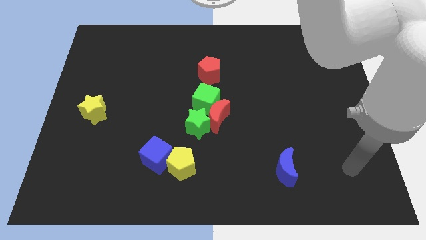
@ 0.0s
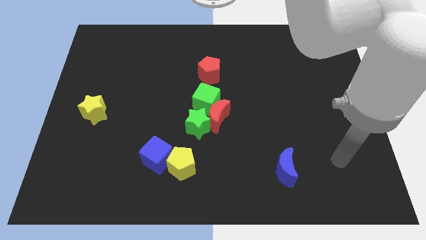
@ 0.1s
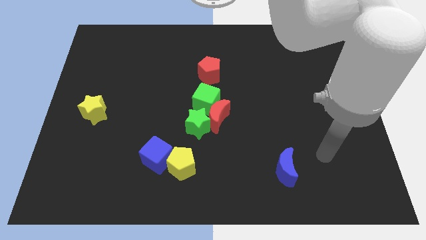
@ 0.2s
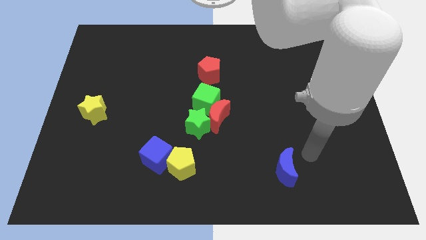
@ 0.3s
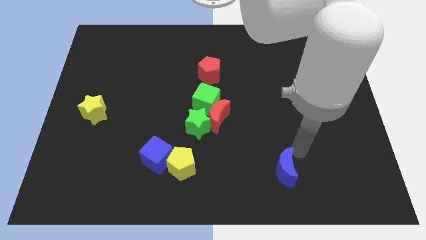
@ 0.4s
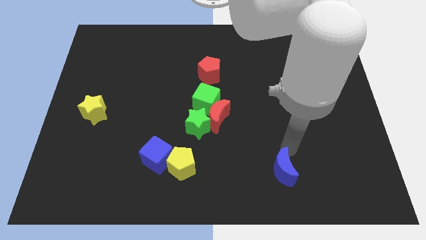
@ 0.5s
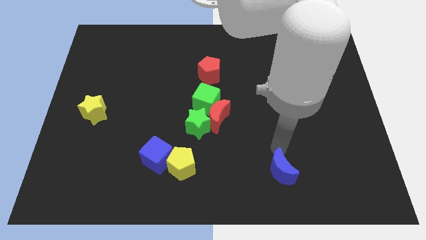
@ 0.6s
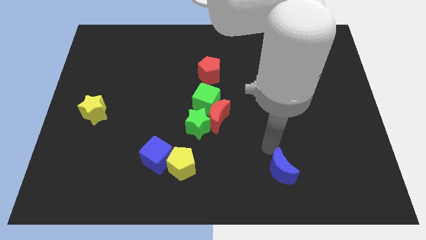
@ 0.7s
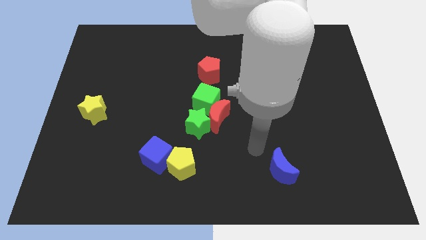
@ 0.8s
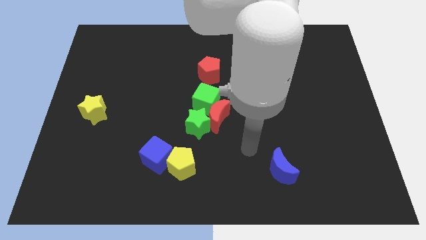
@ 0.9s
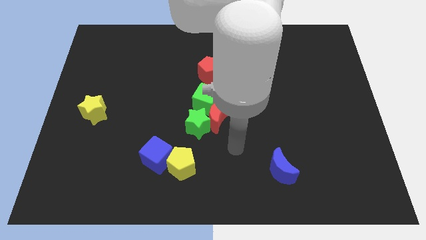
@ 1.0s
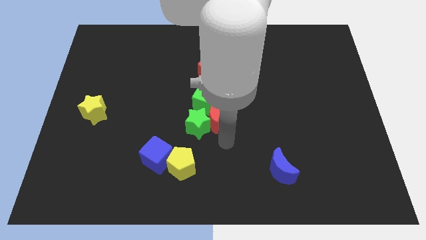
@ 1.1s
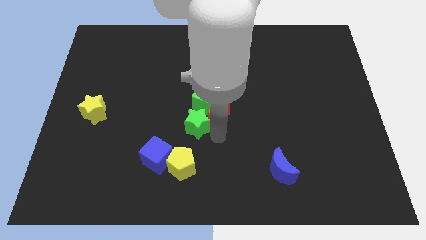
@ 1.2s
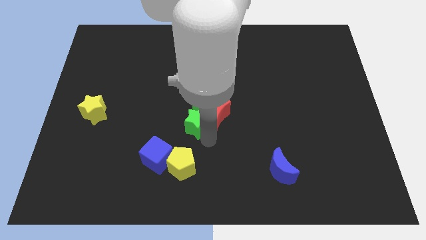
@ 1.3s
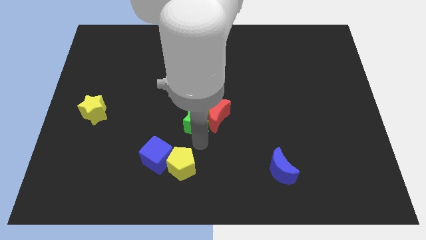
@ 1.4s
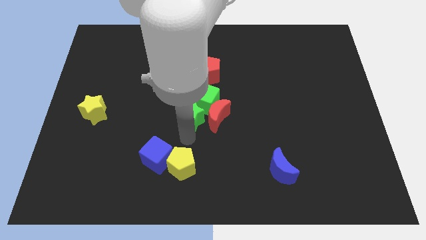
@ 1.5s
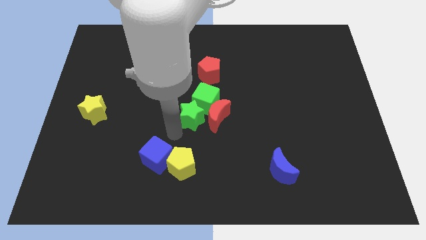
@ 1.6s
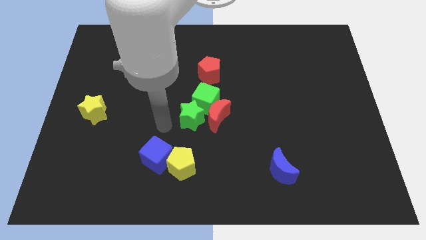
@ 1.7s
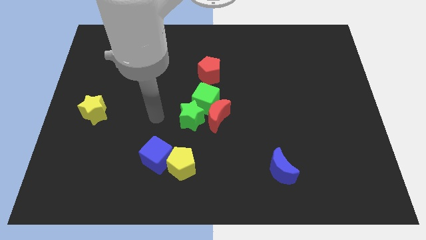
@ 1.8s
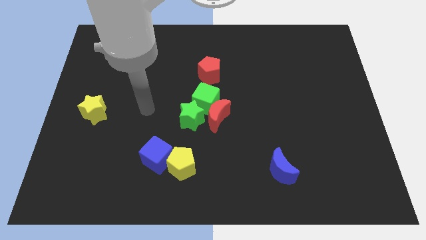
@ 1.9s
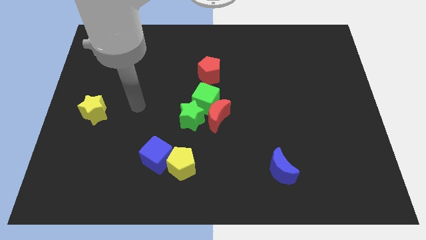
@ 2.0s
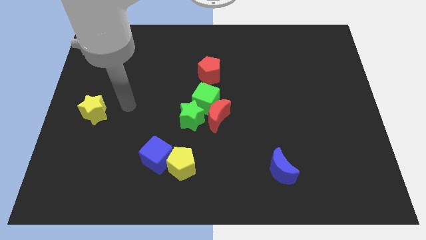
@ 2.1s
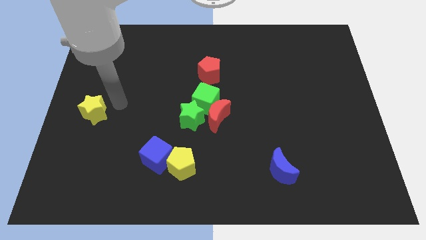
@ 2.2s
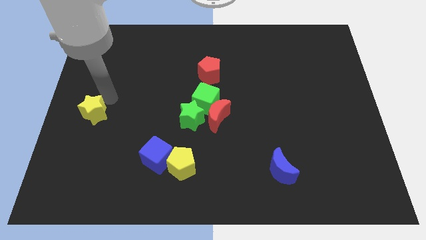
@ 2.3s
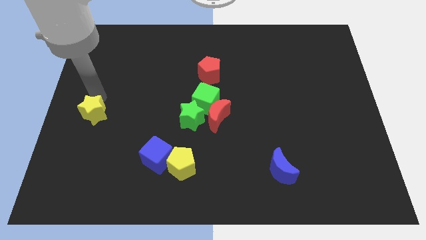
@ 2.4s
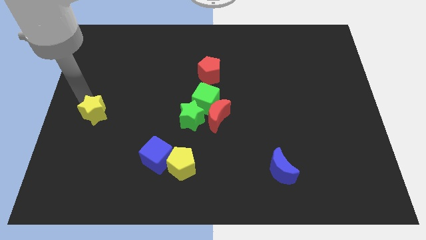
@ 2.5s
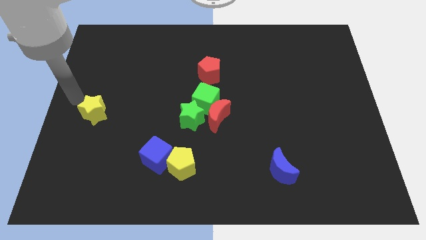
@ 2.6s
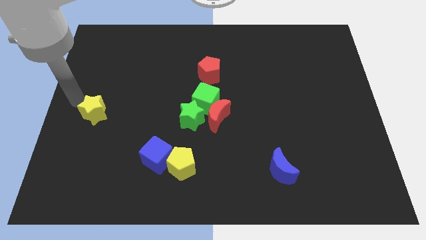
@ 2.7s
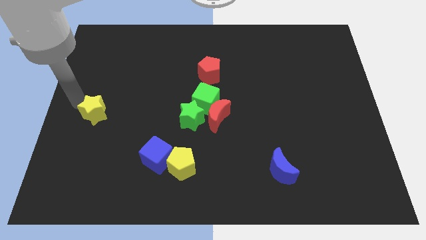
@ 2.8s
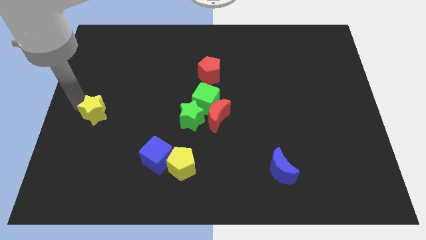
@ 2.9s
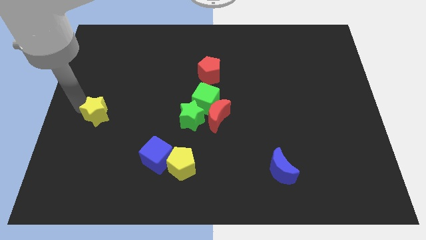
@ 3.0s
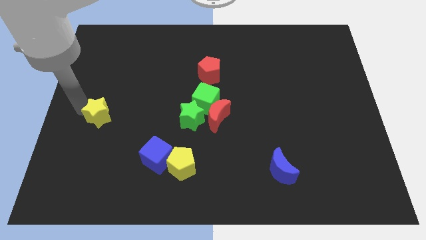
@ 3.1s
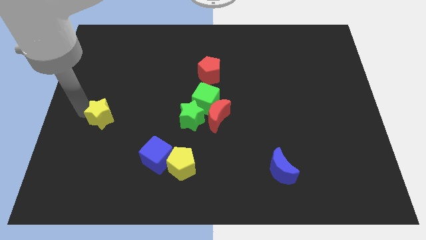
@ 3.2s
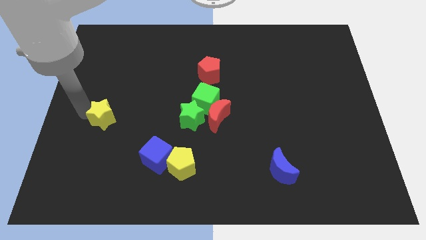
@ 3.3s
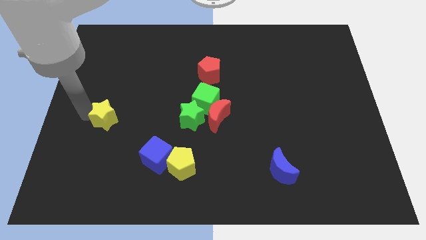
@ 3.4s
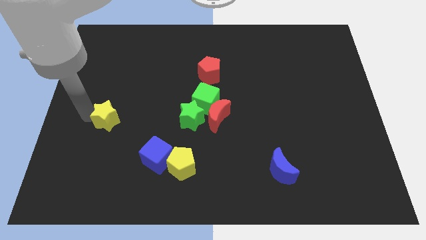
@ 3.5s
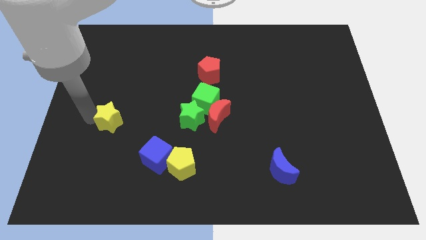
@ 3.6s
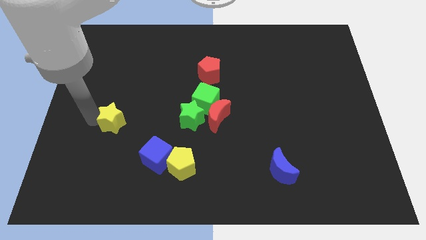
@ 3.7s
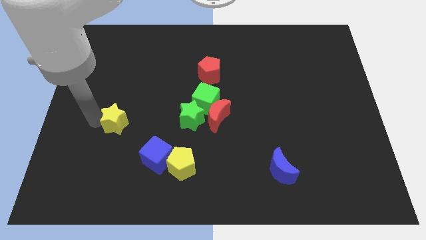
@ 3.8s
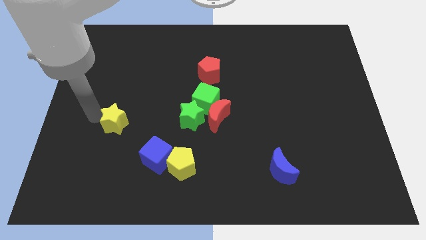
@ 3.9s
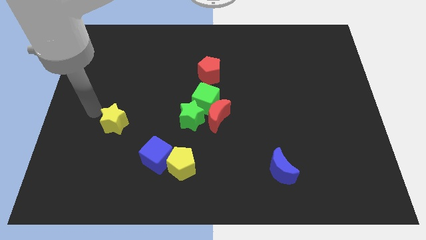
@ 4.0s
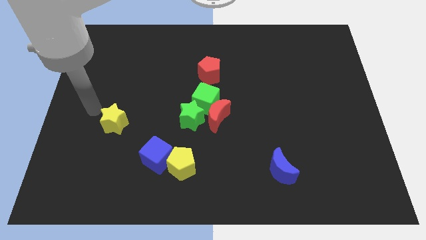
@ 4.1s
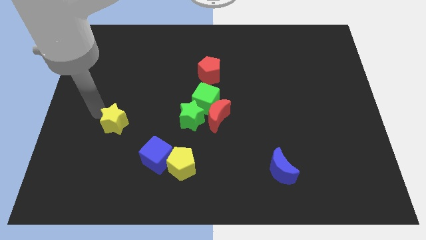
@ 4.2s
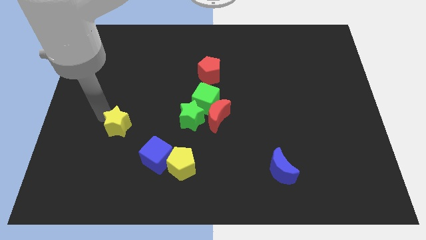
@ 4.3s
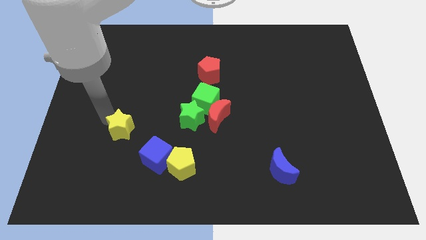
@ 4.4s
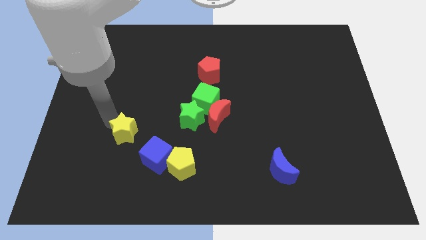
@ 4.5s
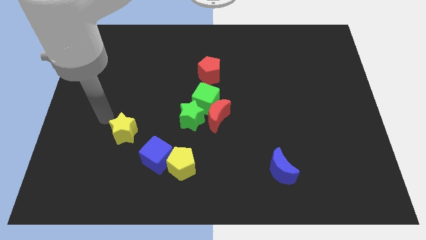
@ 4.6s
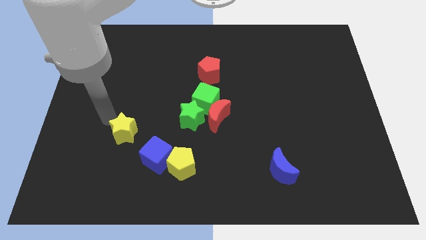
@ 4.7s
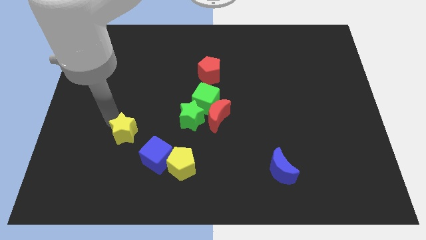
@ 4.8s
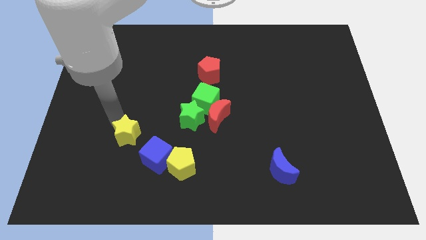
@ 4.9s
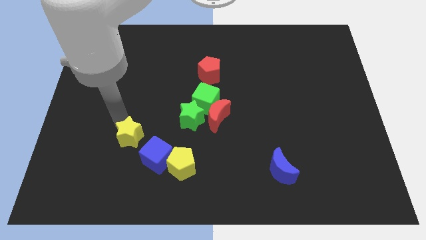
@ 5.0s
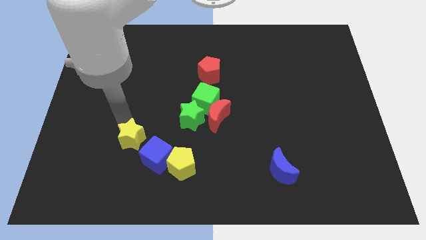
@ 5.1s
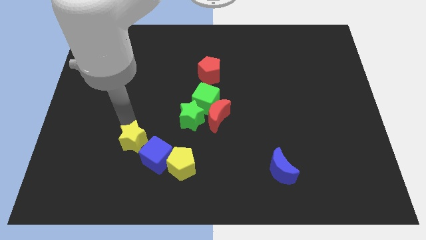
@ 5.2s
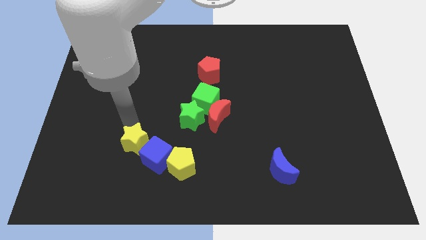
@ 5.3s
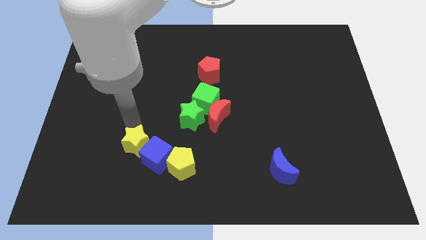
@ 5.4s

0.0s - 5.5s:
slide the yellow star close to the blue cube

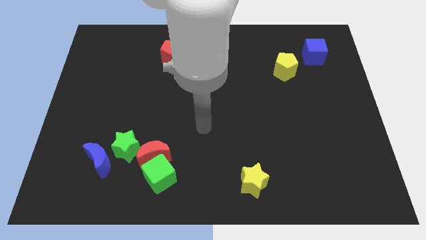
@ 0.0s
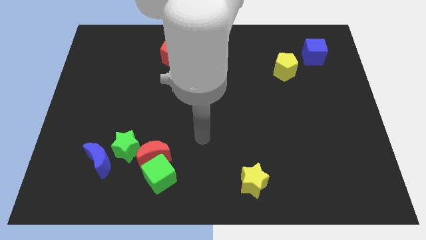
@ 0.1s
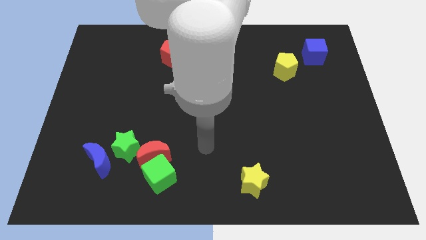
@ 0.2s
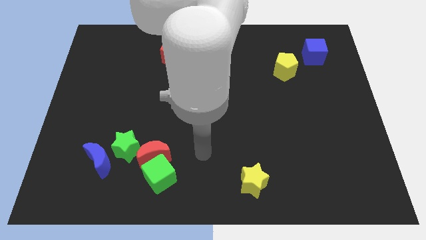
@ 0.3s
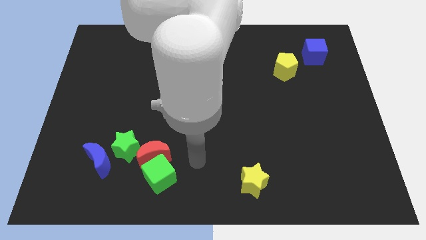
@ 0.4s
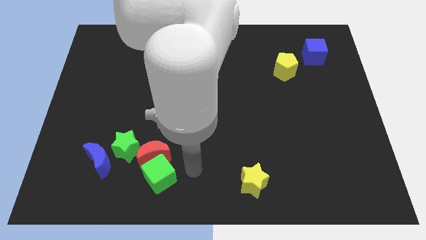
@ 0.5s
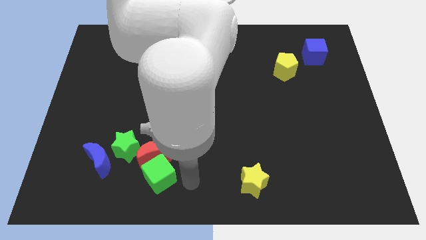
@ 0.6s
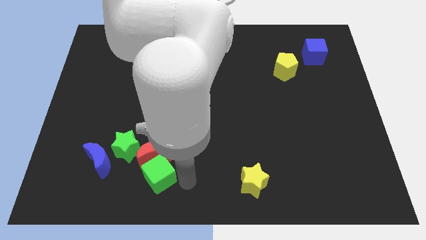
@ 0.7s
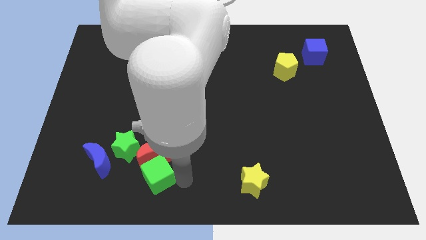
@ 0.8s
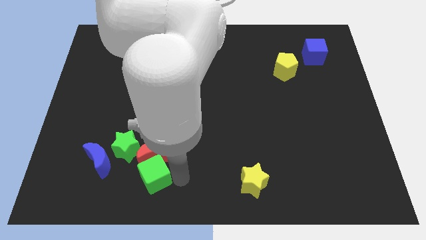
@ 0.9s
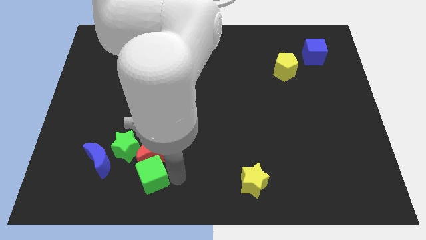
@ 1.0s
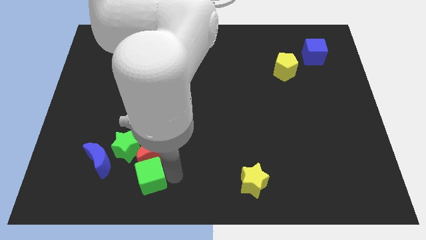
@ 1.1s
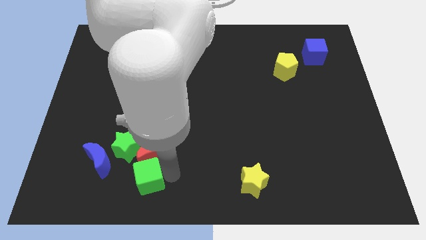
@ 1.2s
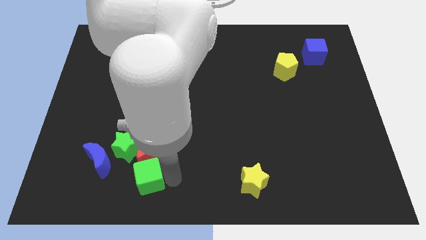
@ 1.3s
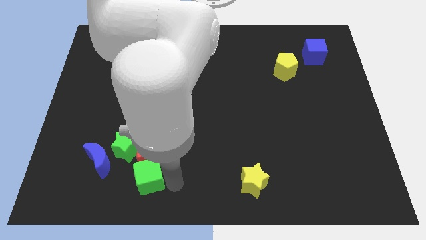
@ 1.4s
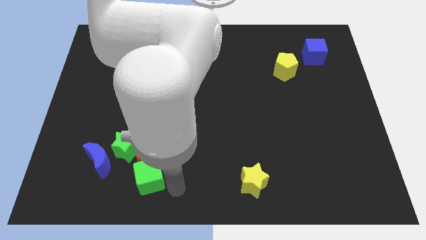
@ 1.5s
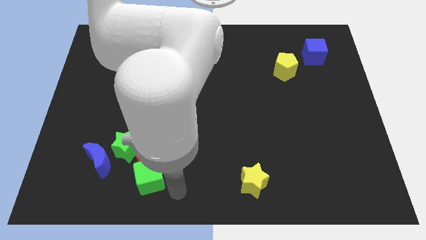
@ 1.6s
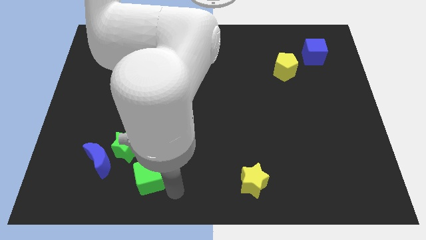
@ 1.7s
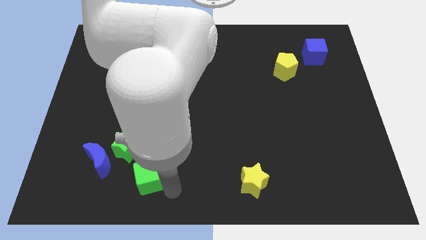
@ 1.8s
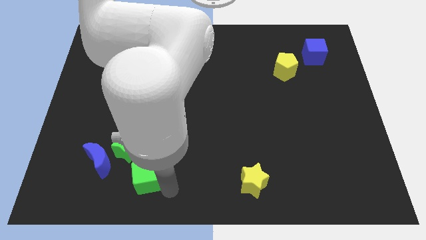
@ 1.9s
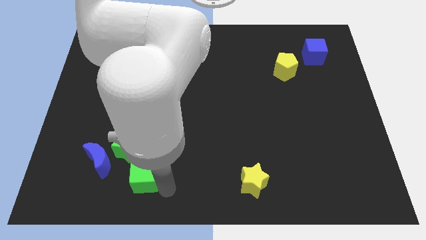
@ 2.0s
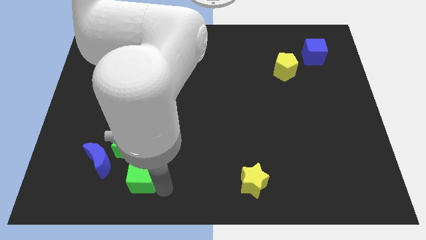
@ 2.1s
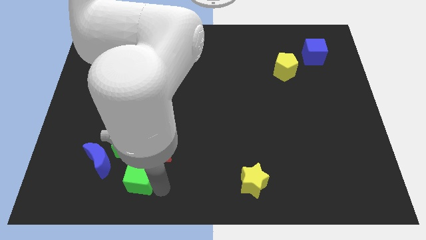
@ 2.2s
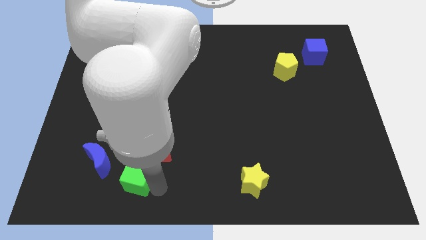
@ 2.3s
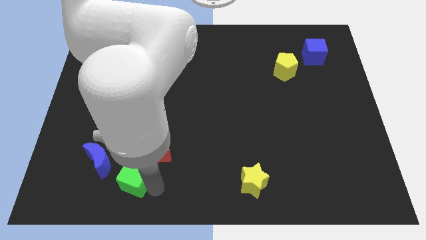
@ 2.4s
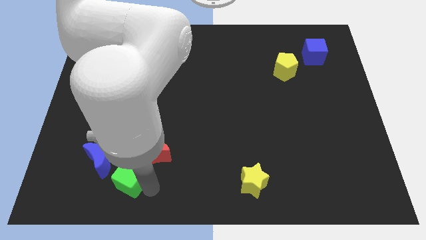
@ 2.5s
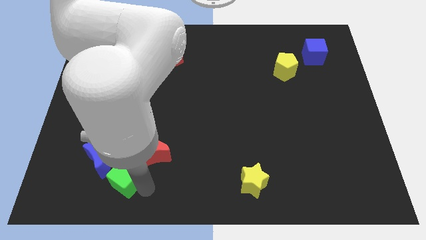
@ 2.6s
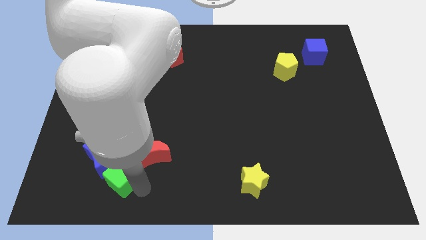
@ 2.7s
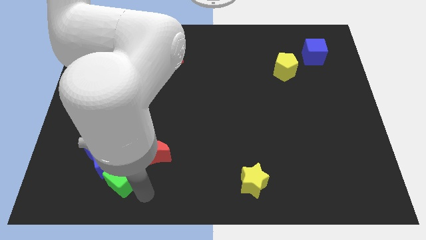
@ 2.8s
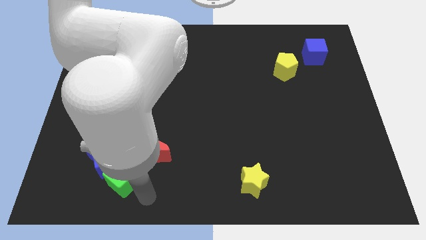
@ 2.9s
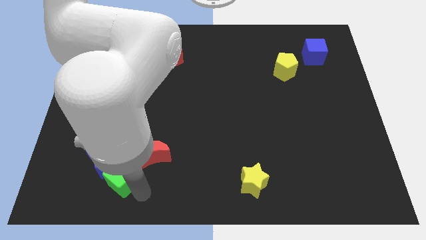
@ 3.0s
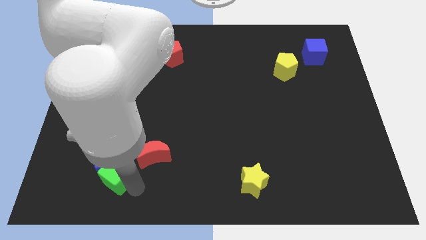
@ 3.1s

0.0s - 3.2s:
move the green cube close to the blue moon
